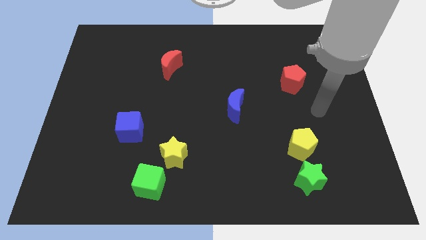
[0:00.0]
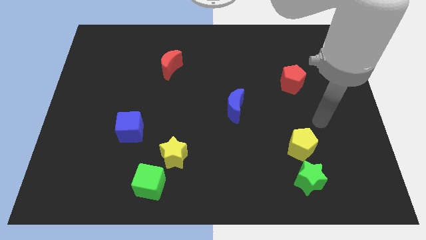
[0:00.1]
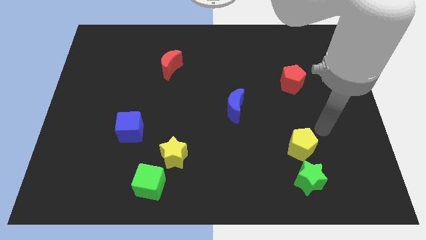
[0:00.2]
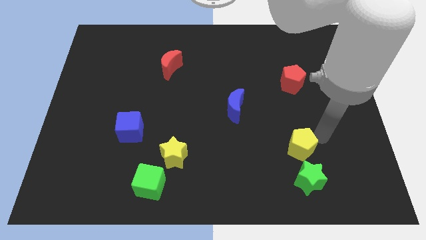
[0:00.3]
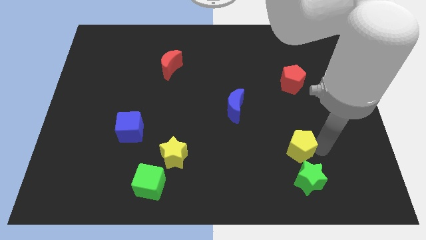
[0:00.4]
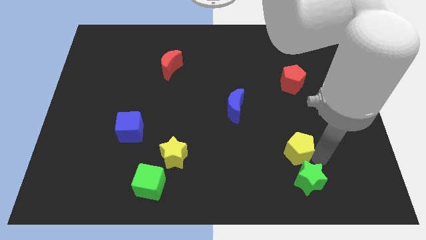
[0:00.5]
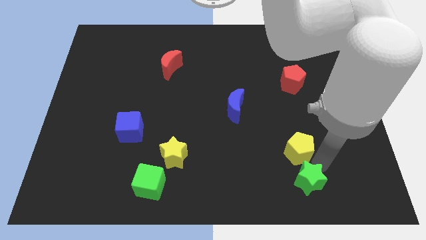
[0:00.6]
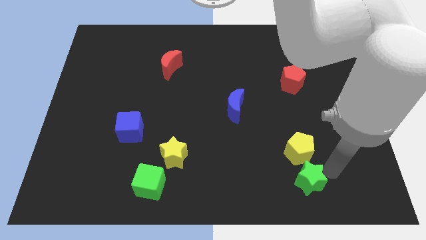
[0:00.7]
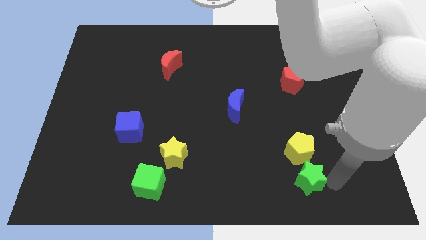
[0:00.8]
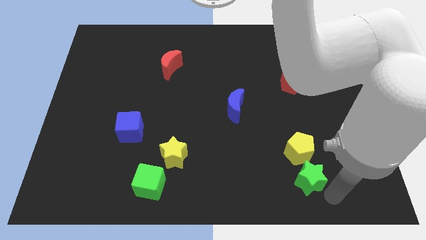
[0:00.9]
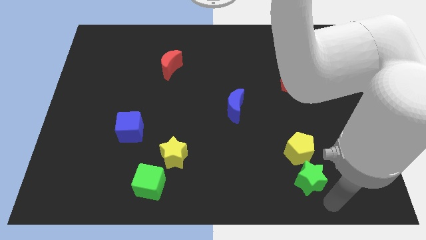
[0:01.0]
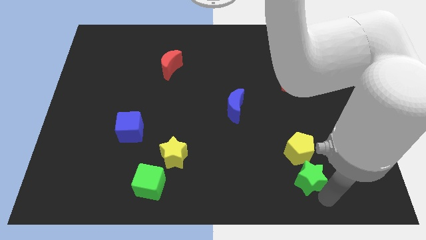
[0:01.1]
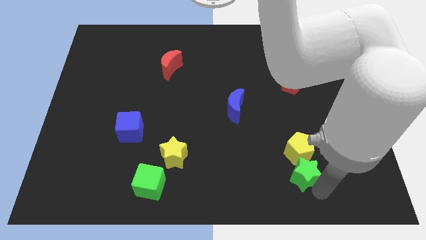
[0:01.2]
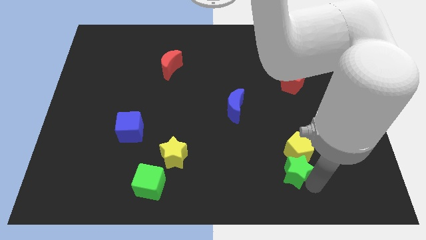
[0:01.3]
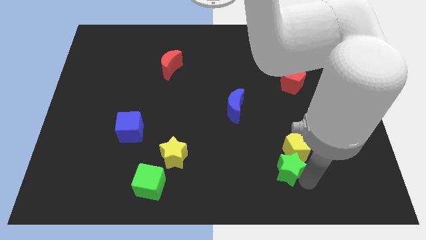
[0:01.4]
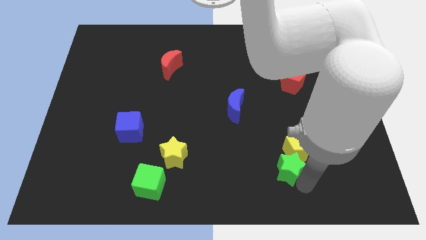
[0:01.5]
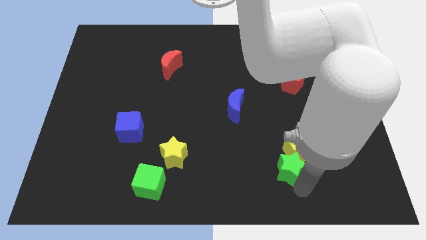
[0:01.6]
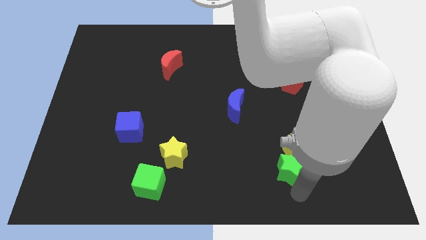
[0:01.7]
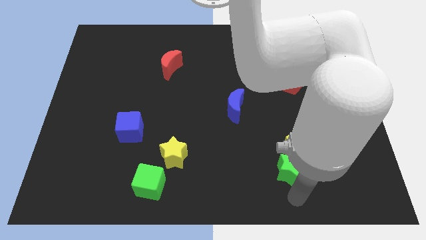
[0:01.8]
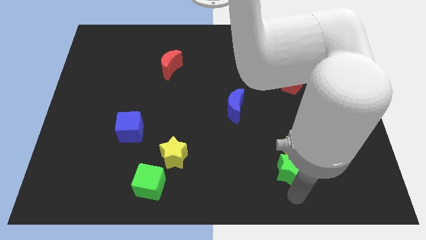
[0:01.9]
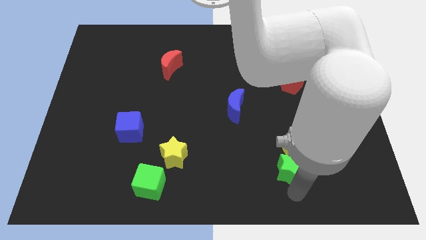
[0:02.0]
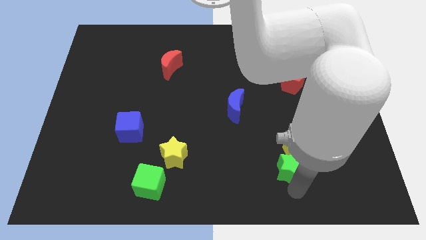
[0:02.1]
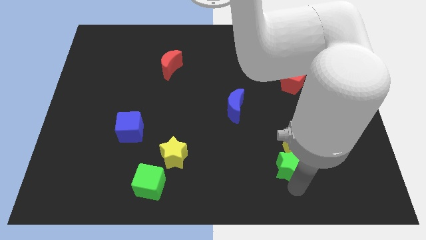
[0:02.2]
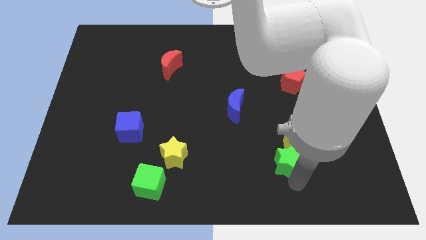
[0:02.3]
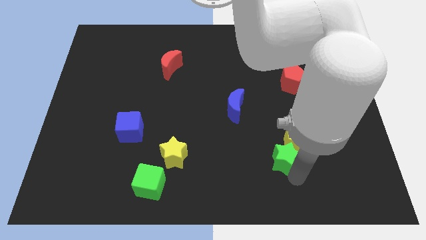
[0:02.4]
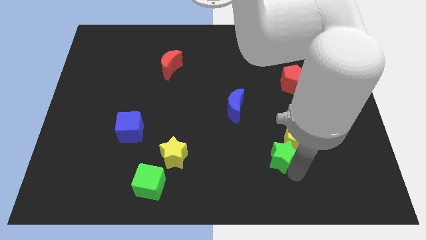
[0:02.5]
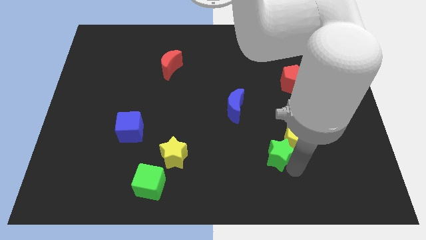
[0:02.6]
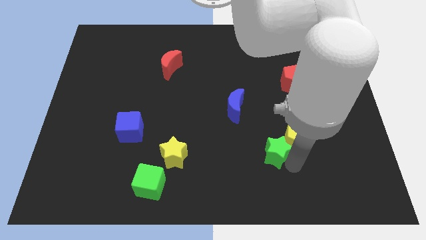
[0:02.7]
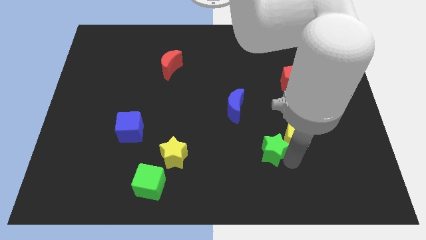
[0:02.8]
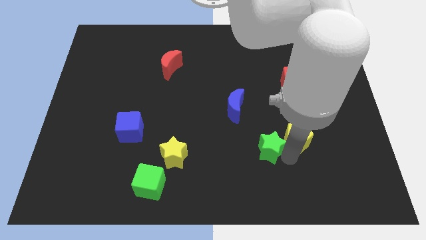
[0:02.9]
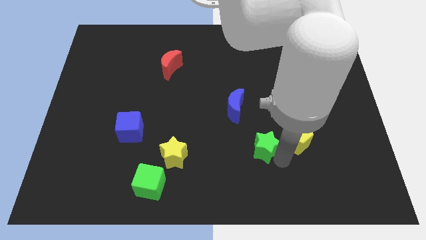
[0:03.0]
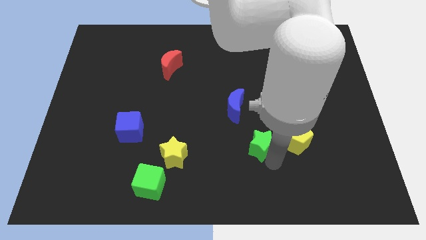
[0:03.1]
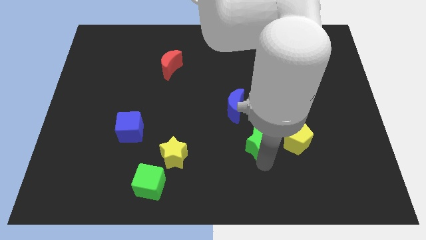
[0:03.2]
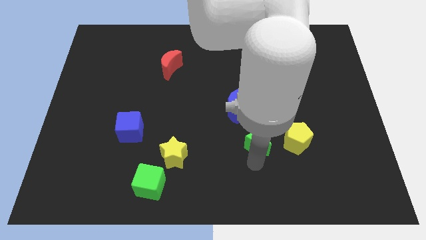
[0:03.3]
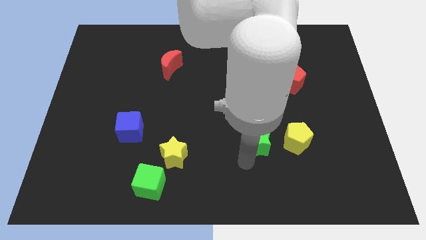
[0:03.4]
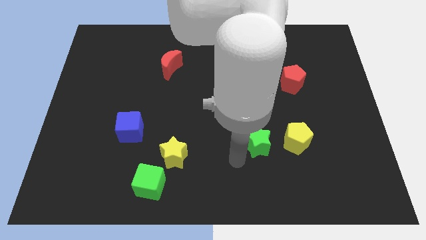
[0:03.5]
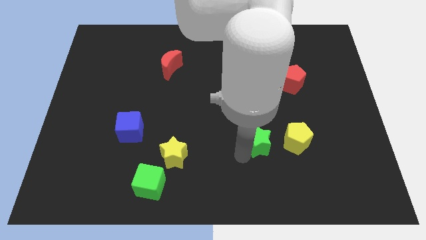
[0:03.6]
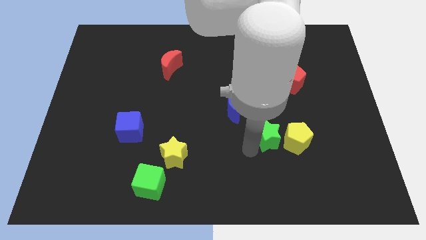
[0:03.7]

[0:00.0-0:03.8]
move the green star a bit up

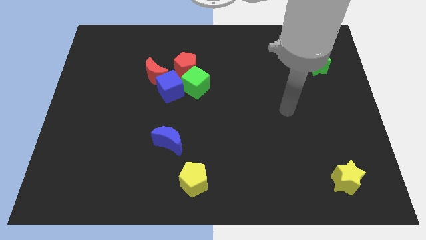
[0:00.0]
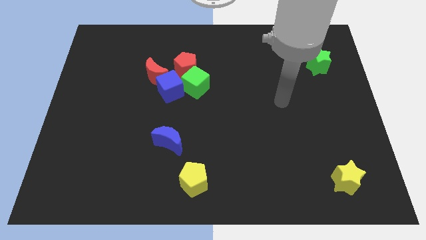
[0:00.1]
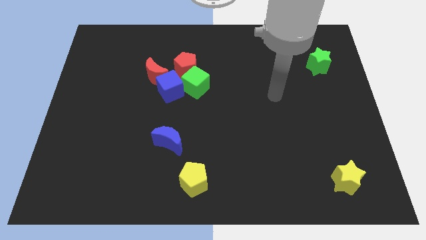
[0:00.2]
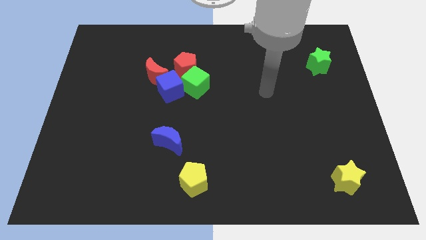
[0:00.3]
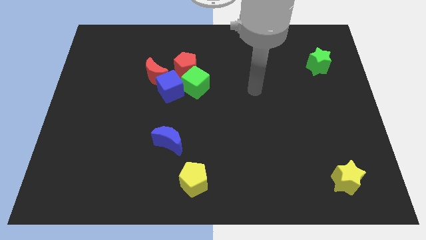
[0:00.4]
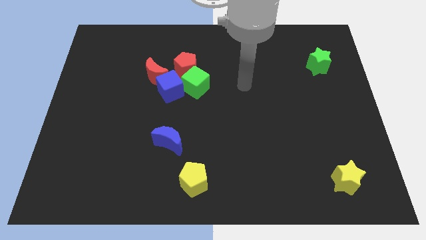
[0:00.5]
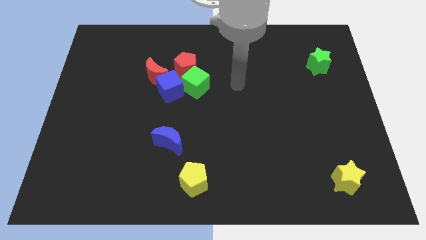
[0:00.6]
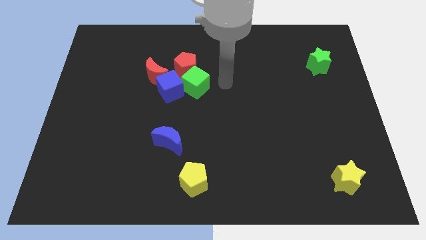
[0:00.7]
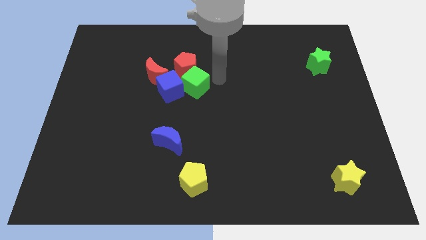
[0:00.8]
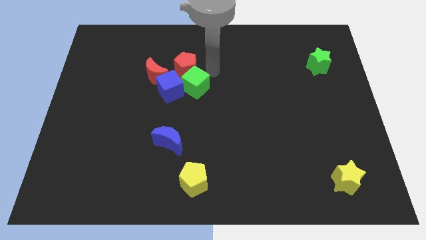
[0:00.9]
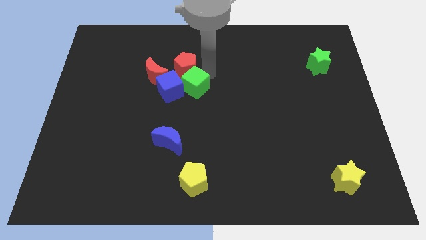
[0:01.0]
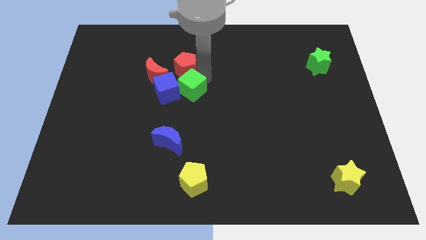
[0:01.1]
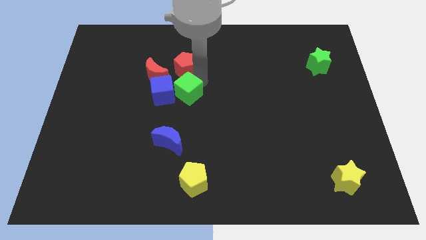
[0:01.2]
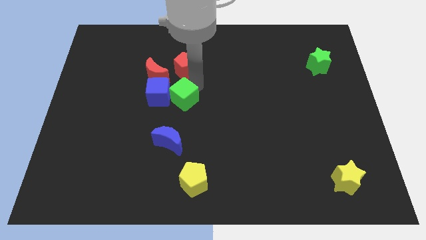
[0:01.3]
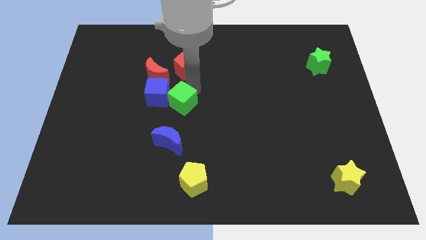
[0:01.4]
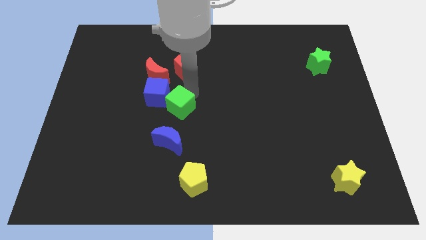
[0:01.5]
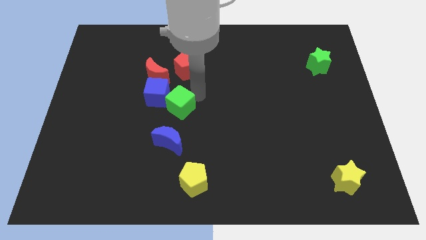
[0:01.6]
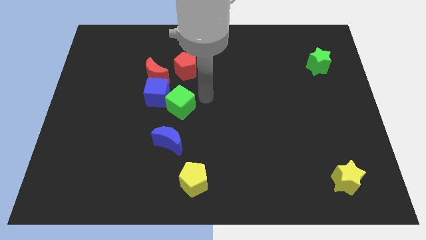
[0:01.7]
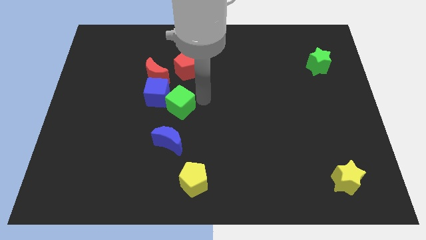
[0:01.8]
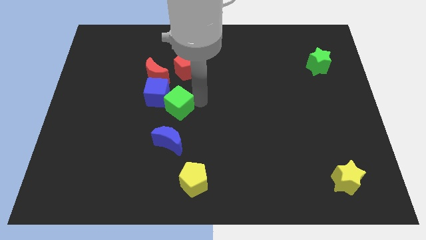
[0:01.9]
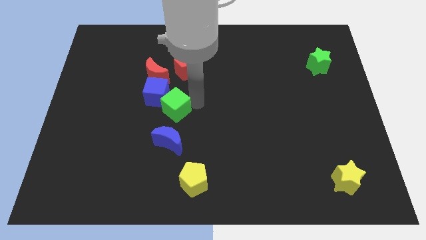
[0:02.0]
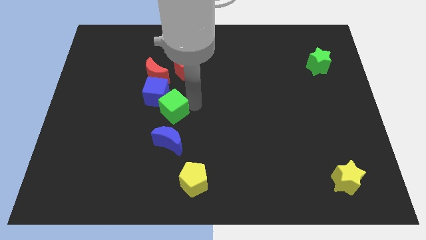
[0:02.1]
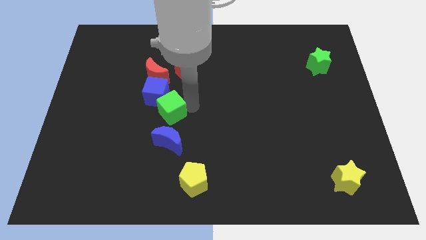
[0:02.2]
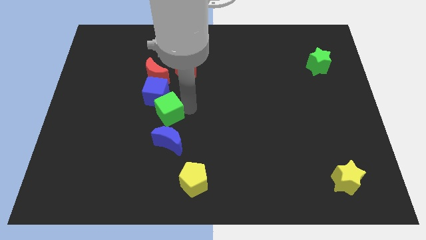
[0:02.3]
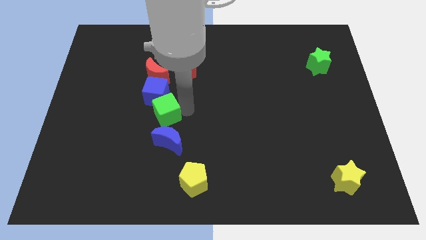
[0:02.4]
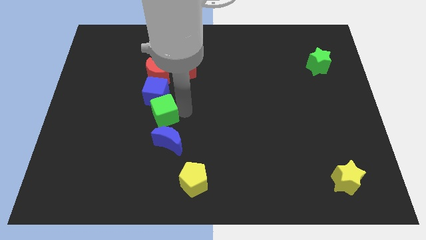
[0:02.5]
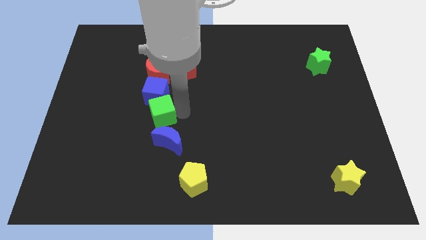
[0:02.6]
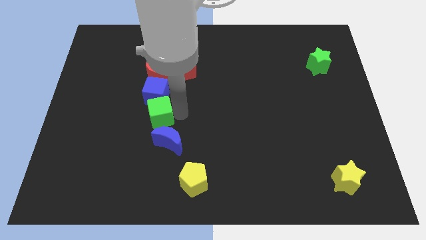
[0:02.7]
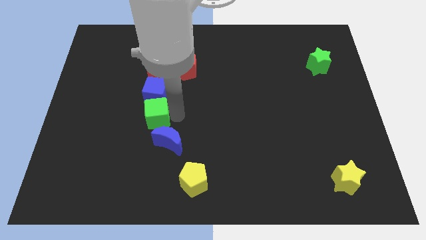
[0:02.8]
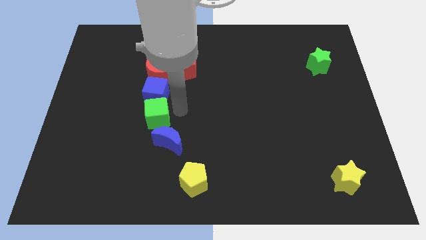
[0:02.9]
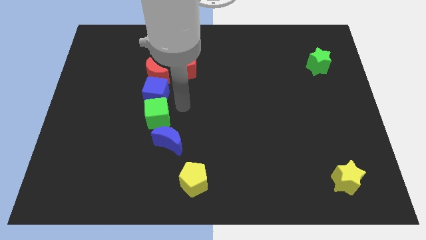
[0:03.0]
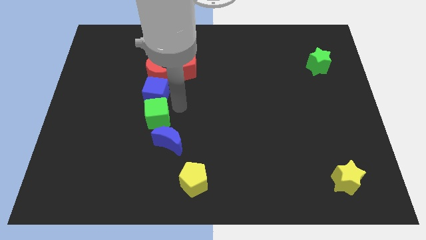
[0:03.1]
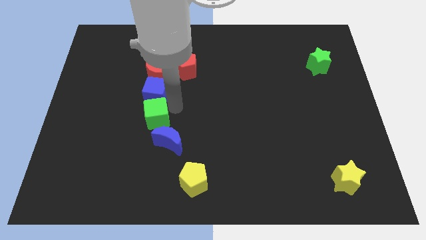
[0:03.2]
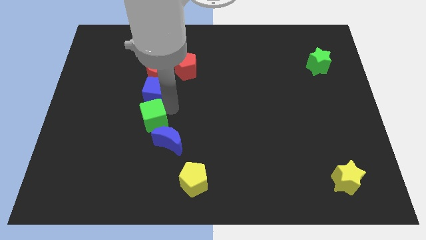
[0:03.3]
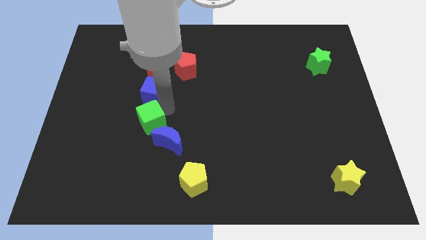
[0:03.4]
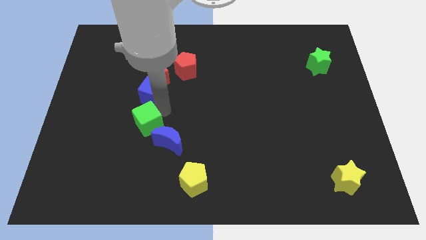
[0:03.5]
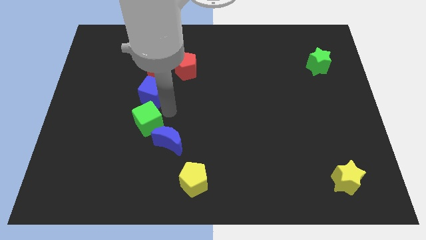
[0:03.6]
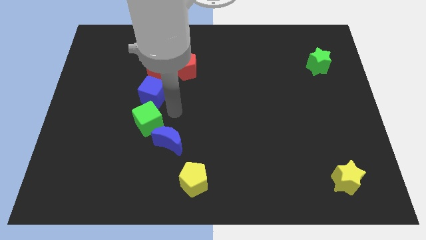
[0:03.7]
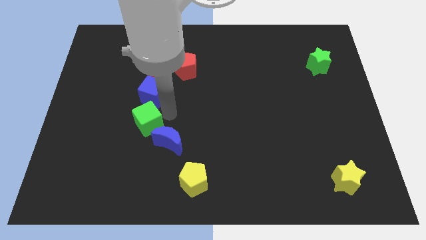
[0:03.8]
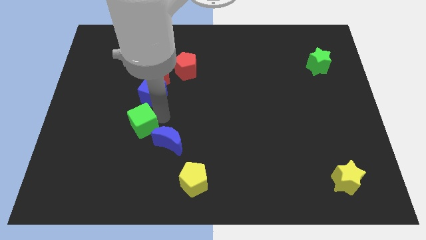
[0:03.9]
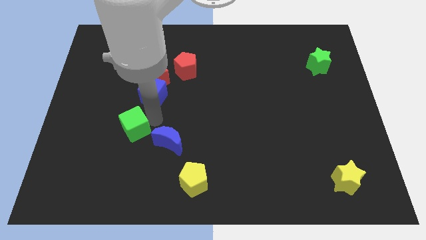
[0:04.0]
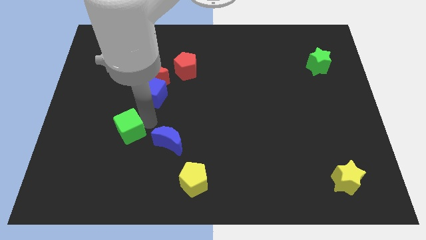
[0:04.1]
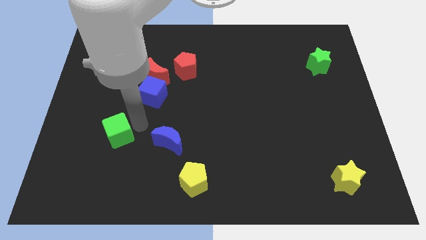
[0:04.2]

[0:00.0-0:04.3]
slide the green cube down and left

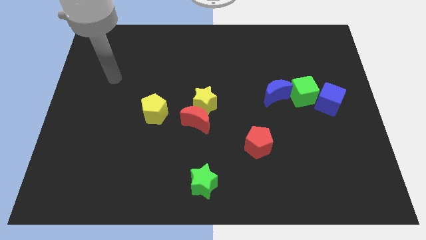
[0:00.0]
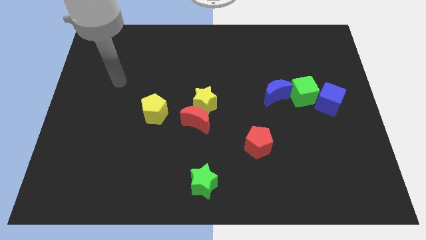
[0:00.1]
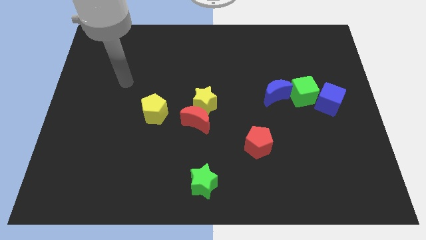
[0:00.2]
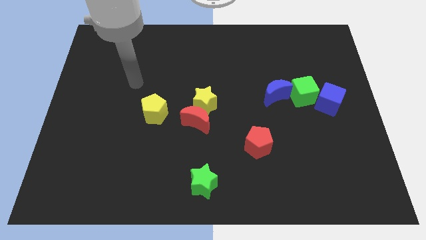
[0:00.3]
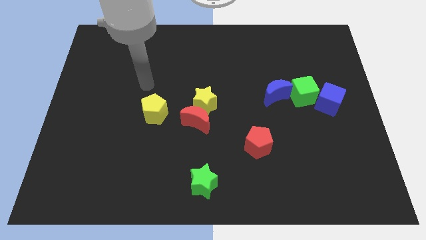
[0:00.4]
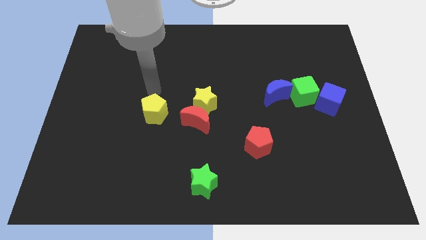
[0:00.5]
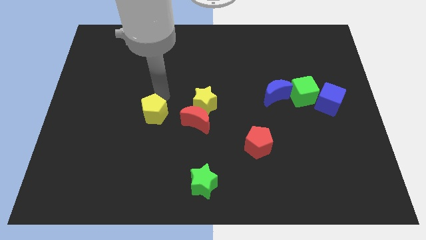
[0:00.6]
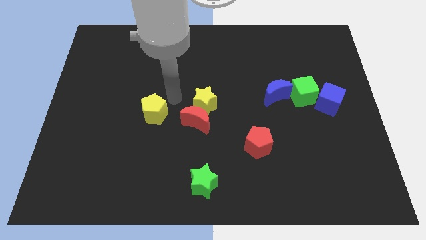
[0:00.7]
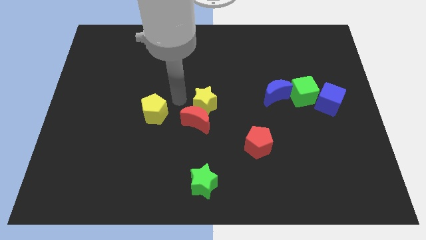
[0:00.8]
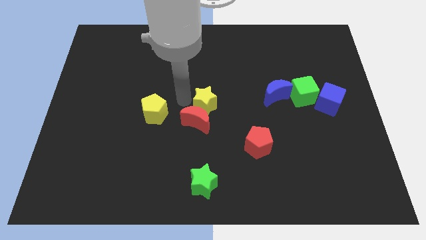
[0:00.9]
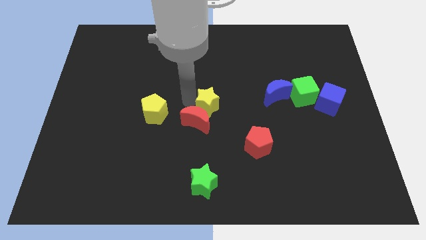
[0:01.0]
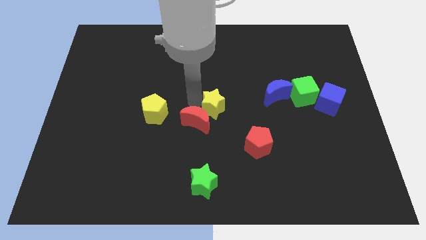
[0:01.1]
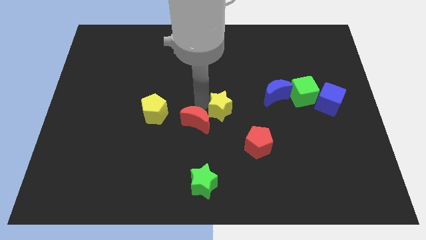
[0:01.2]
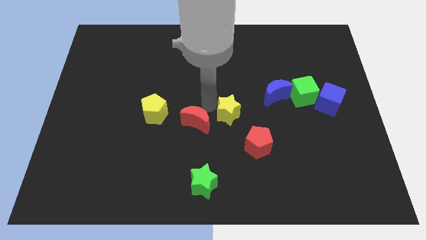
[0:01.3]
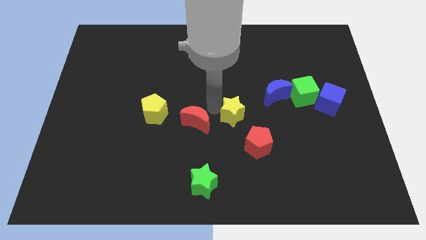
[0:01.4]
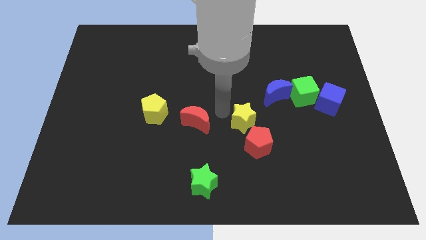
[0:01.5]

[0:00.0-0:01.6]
move the yellow star right a bit
